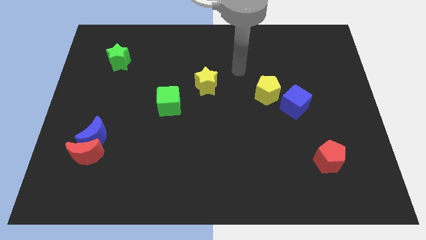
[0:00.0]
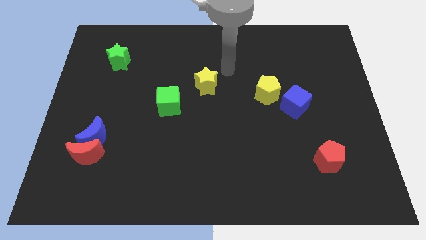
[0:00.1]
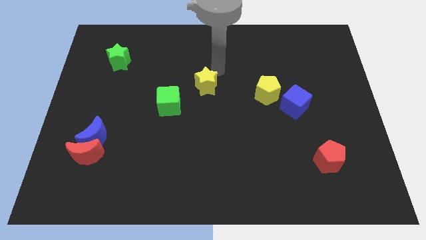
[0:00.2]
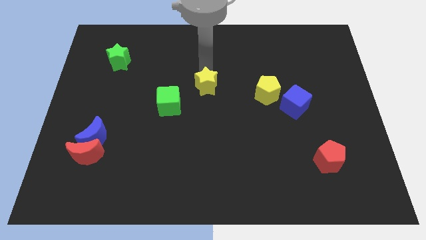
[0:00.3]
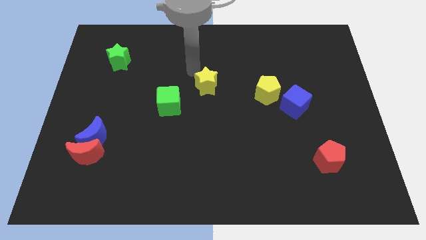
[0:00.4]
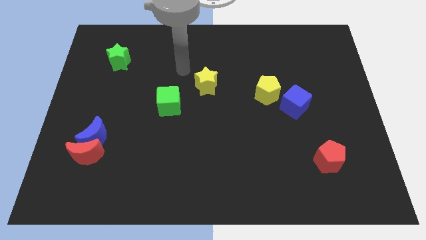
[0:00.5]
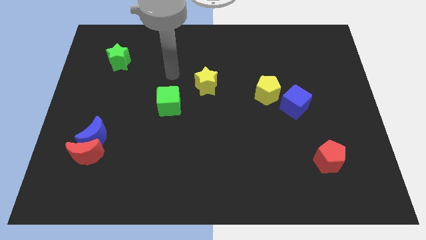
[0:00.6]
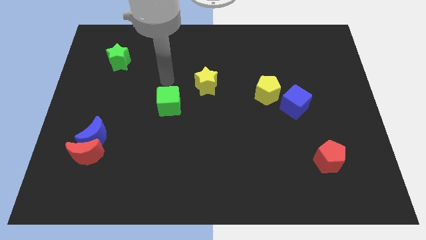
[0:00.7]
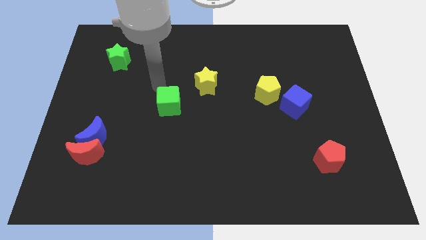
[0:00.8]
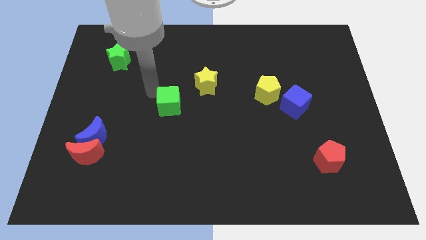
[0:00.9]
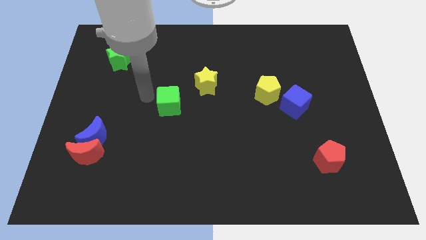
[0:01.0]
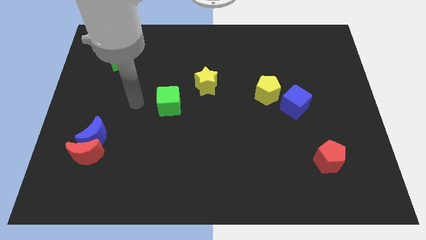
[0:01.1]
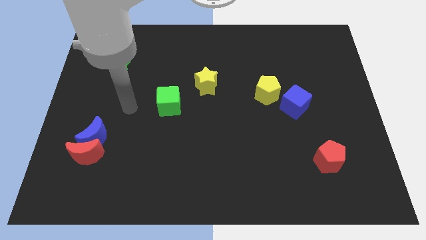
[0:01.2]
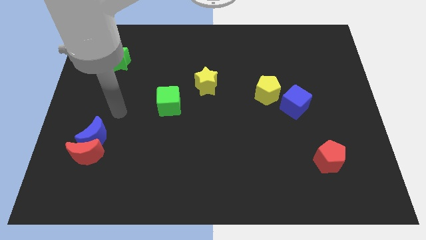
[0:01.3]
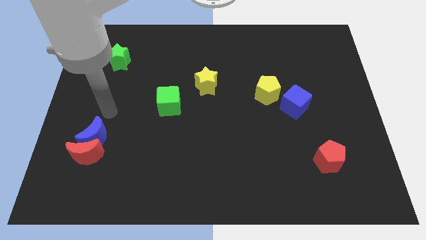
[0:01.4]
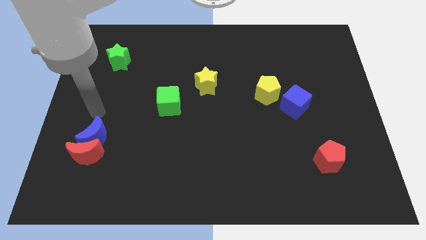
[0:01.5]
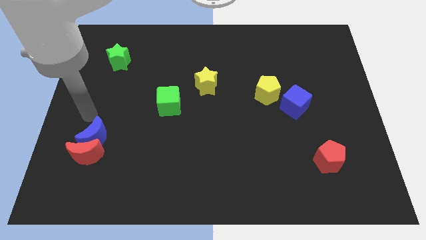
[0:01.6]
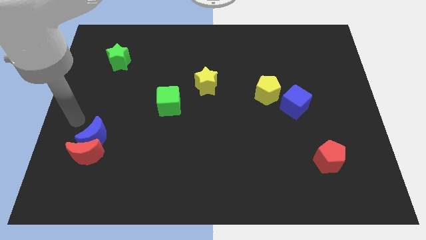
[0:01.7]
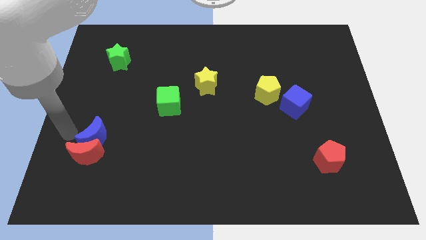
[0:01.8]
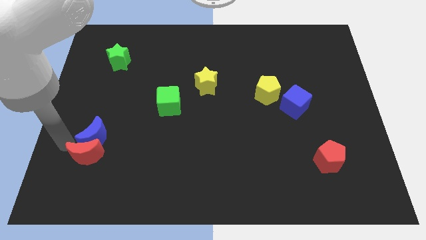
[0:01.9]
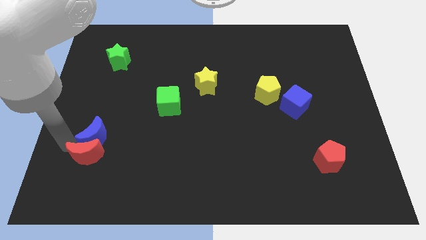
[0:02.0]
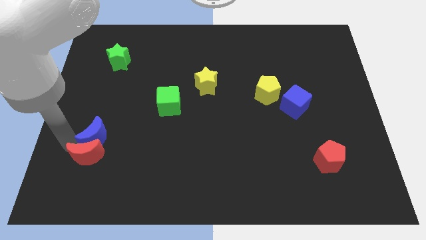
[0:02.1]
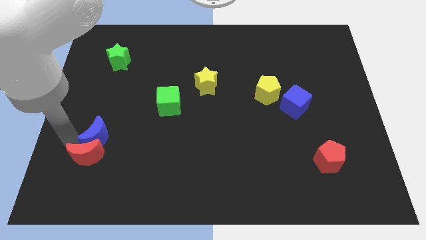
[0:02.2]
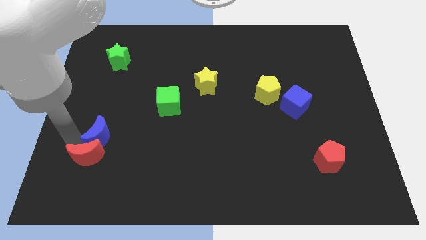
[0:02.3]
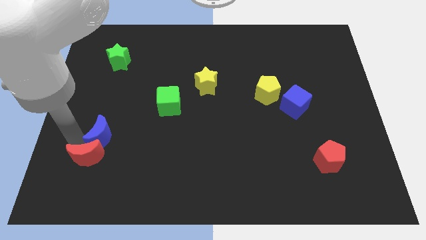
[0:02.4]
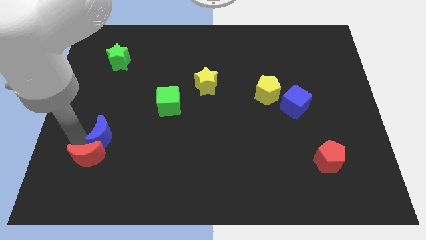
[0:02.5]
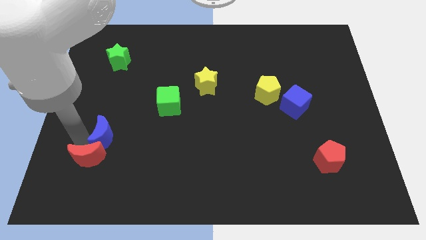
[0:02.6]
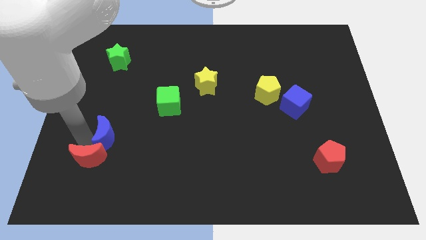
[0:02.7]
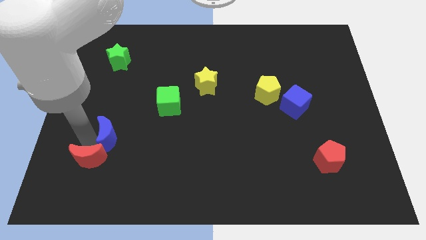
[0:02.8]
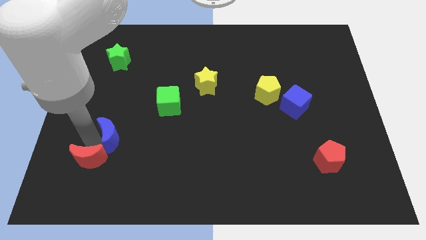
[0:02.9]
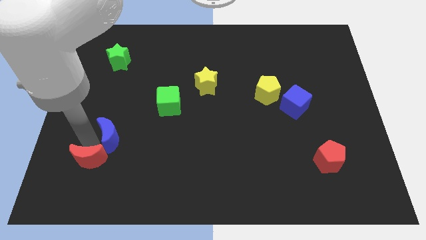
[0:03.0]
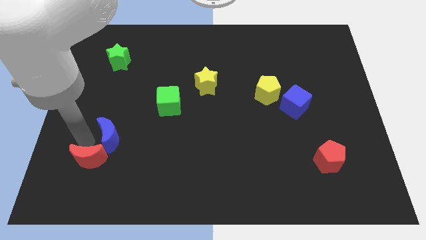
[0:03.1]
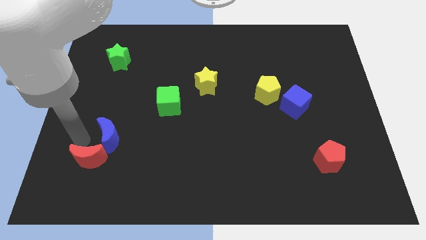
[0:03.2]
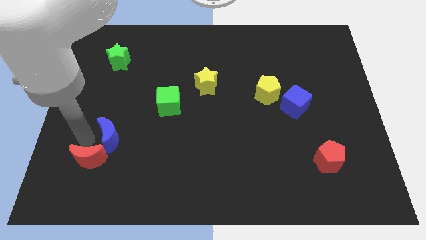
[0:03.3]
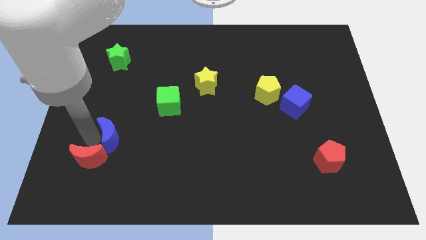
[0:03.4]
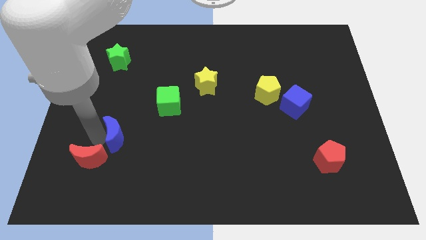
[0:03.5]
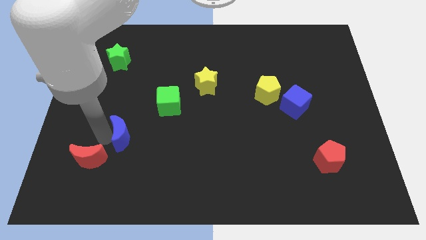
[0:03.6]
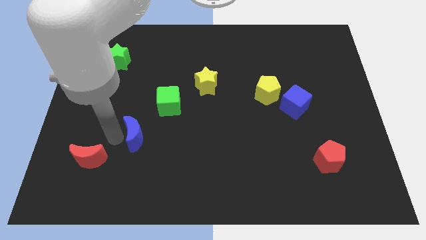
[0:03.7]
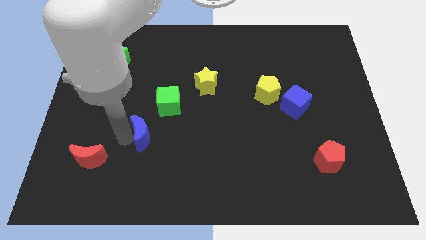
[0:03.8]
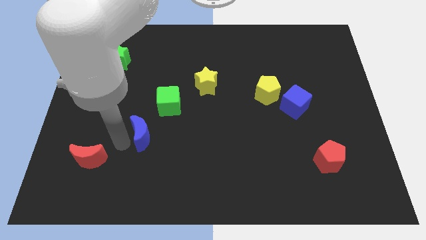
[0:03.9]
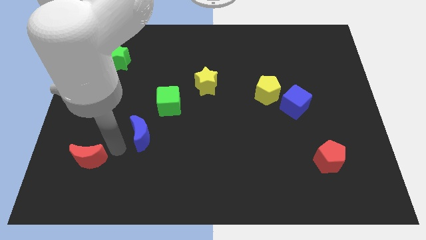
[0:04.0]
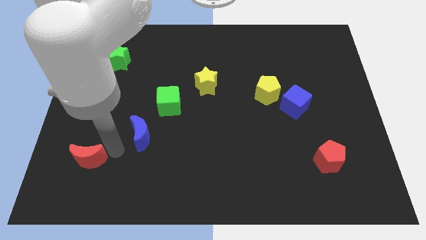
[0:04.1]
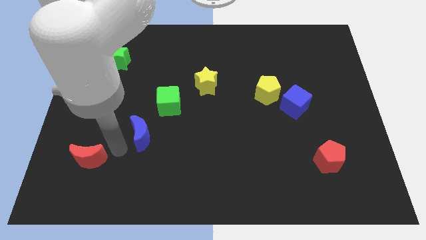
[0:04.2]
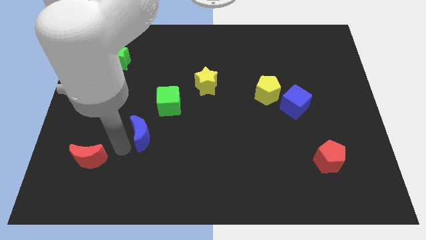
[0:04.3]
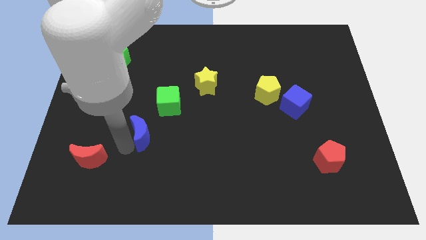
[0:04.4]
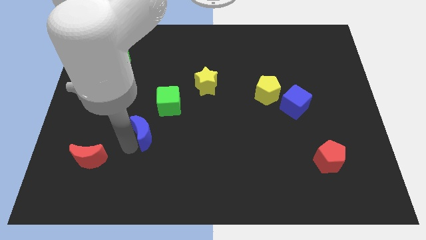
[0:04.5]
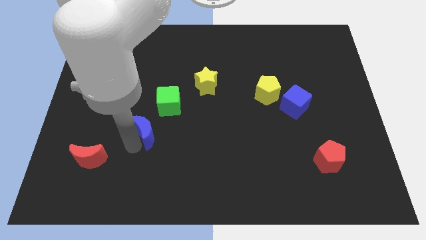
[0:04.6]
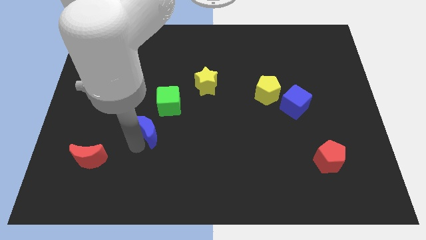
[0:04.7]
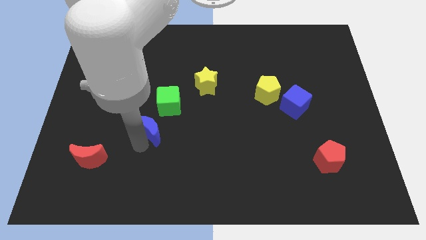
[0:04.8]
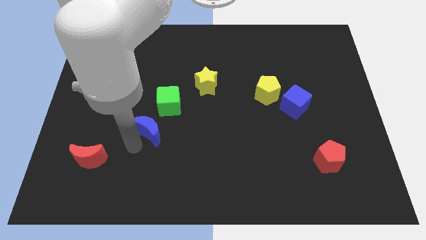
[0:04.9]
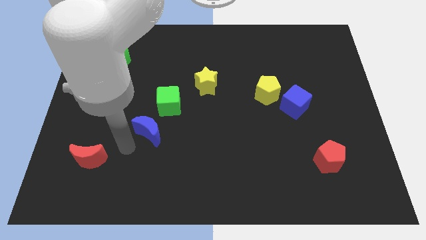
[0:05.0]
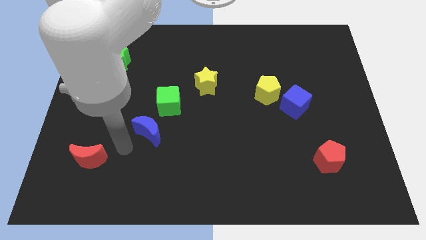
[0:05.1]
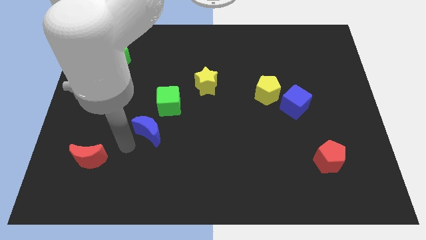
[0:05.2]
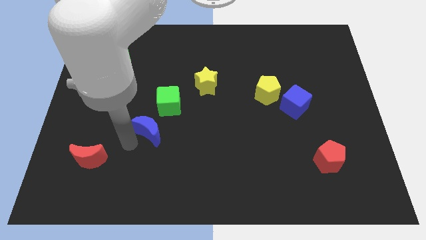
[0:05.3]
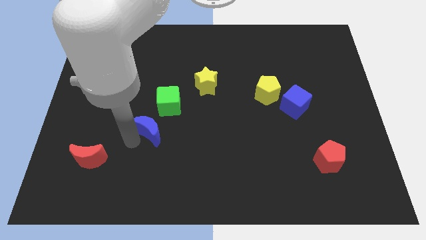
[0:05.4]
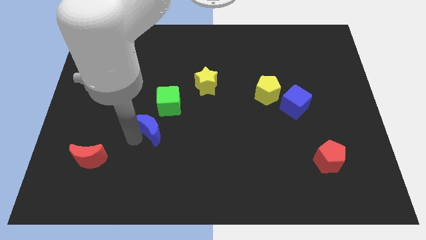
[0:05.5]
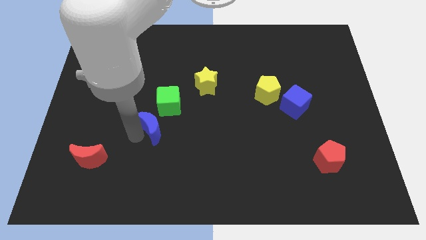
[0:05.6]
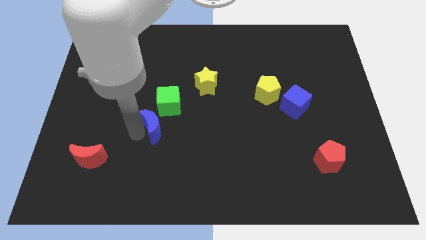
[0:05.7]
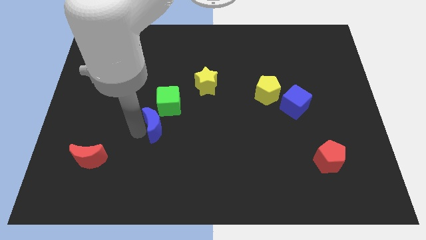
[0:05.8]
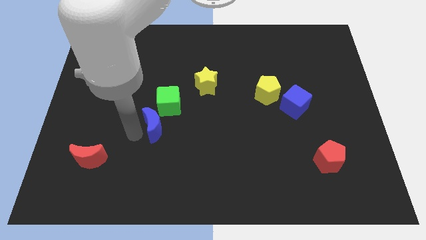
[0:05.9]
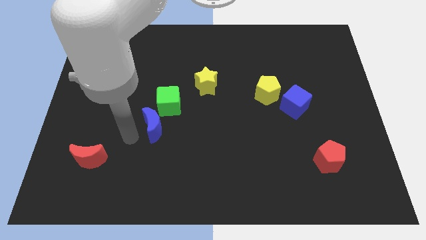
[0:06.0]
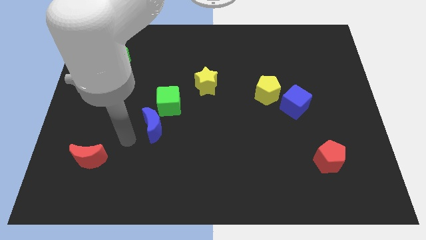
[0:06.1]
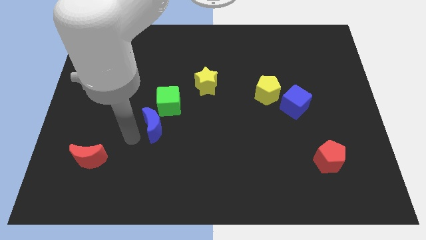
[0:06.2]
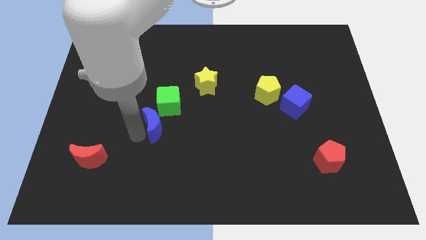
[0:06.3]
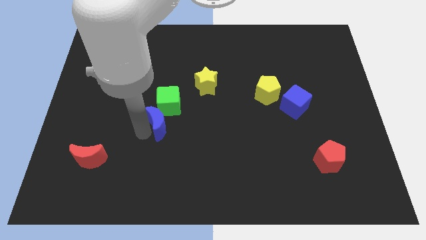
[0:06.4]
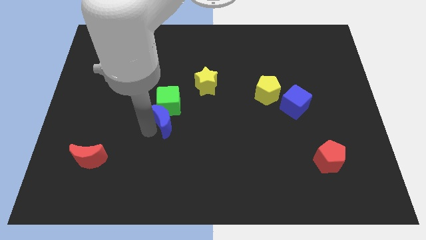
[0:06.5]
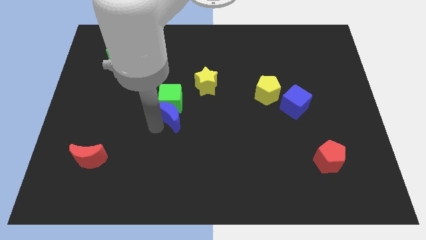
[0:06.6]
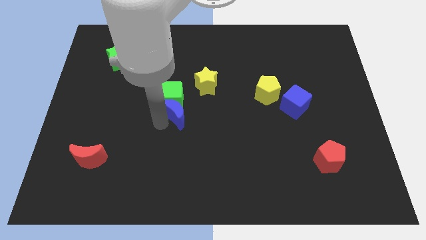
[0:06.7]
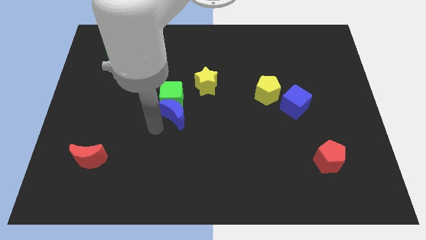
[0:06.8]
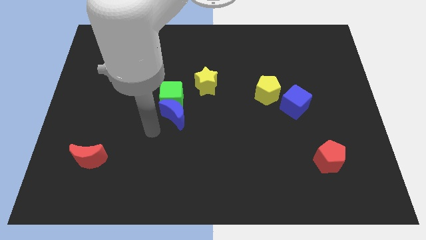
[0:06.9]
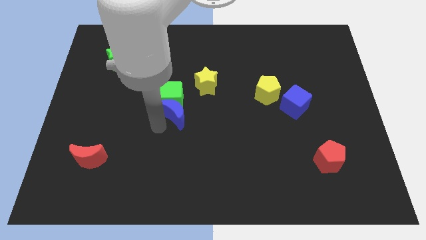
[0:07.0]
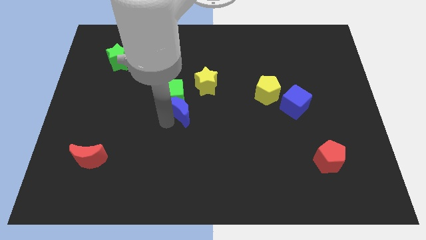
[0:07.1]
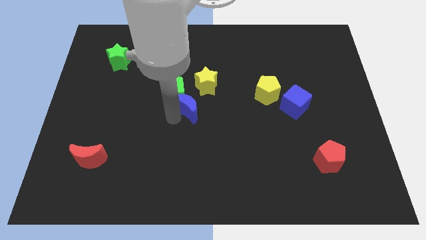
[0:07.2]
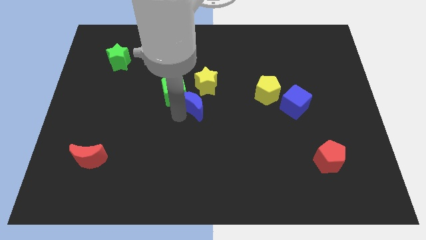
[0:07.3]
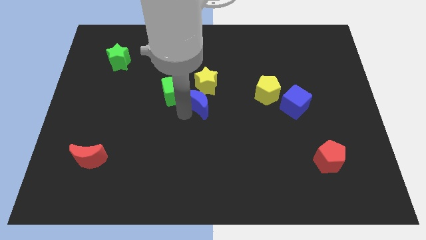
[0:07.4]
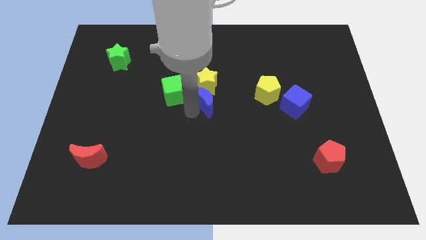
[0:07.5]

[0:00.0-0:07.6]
put the blue moon next to the yellow star
